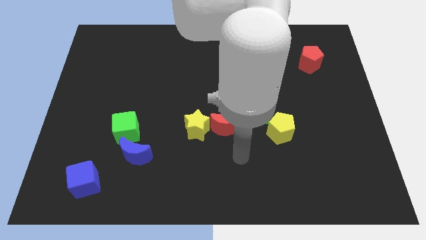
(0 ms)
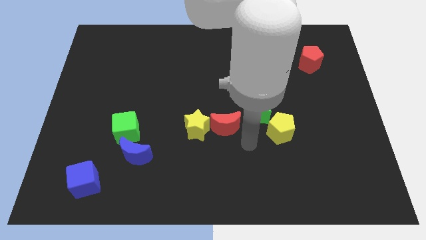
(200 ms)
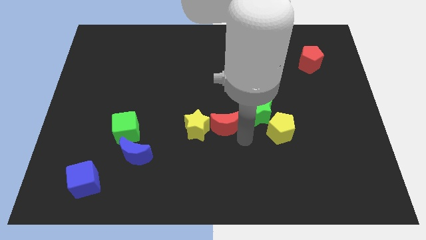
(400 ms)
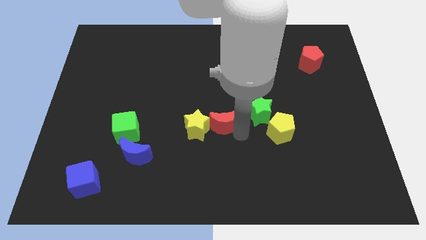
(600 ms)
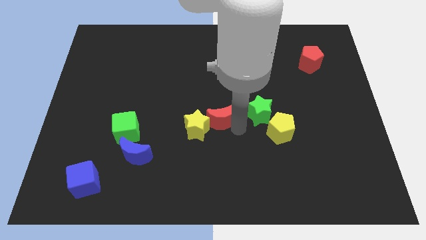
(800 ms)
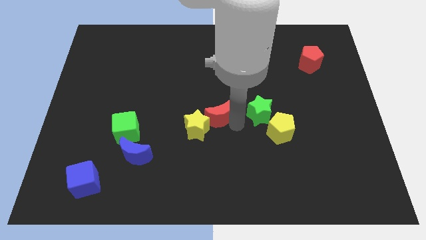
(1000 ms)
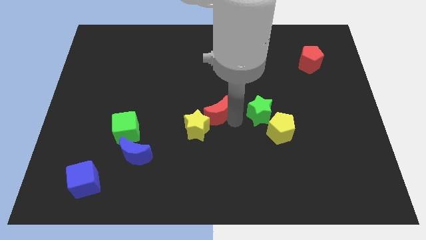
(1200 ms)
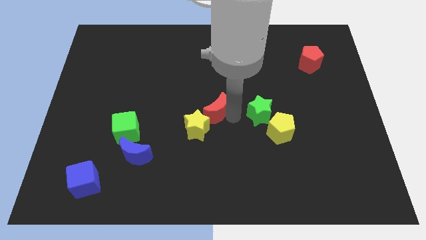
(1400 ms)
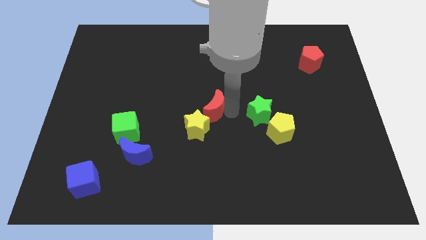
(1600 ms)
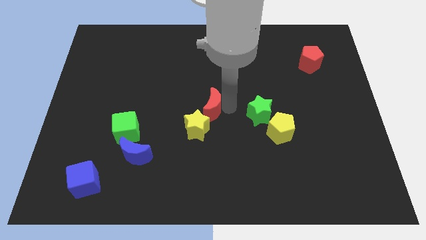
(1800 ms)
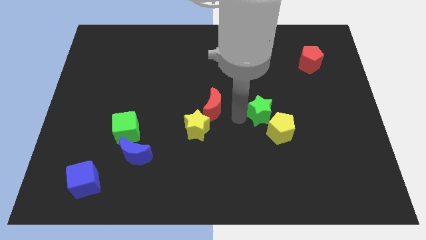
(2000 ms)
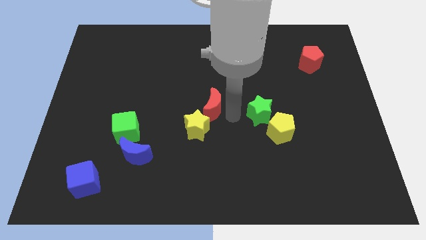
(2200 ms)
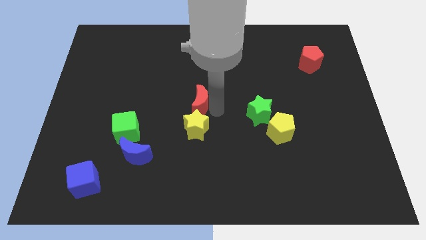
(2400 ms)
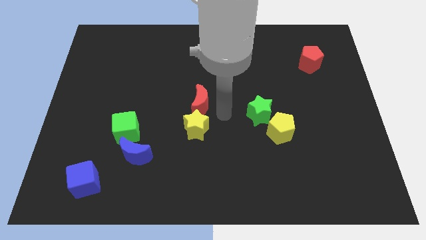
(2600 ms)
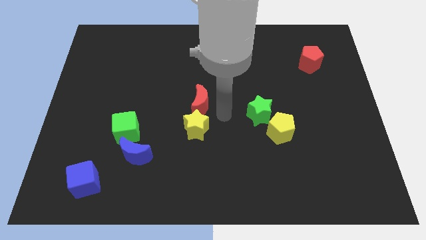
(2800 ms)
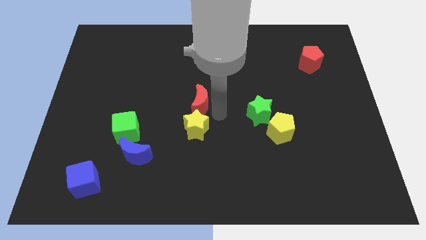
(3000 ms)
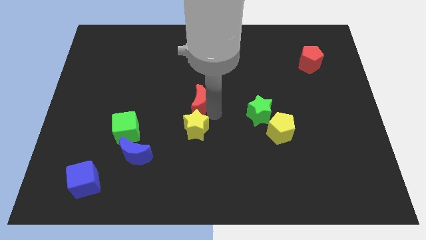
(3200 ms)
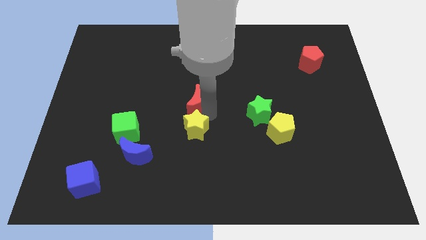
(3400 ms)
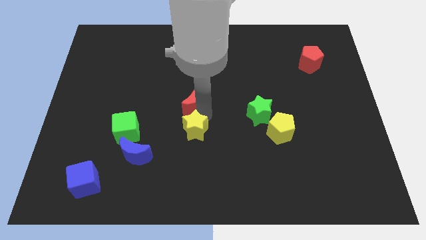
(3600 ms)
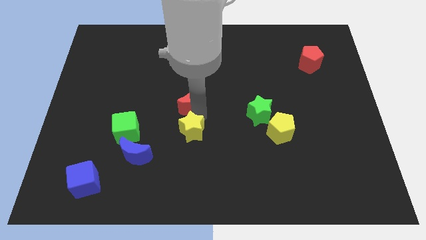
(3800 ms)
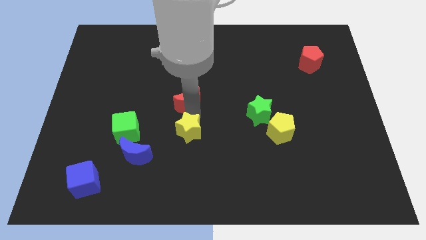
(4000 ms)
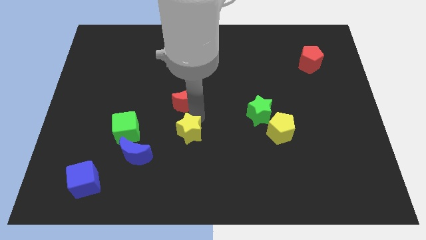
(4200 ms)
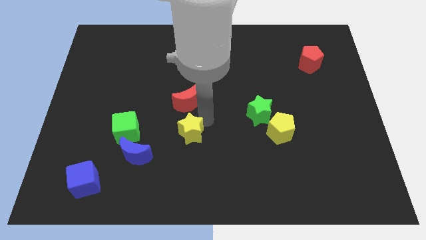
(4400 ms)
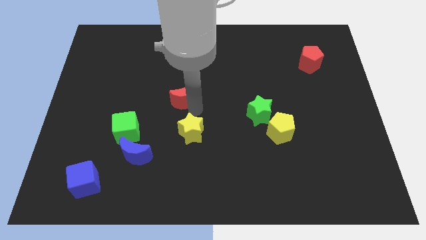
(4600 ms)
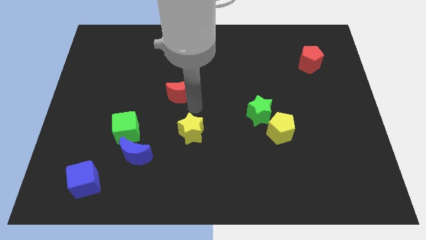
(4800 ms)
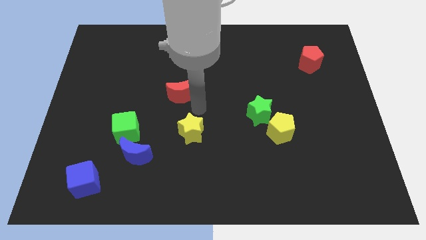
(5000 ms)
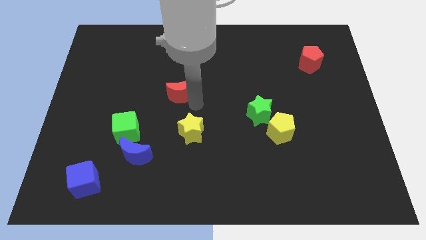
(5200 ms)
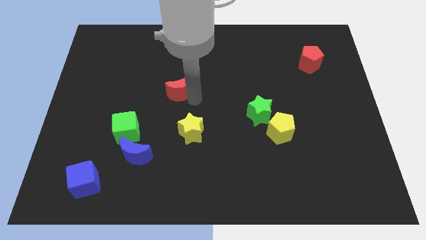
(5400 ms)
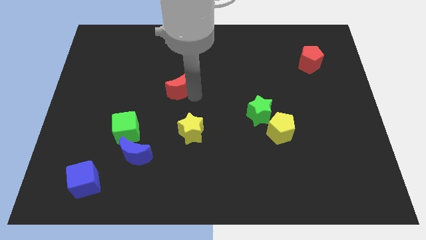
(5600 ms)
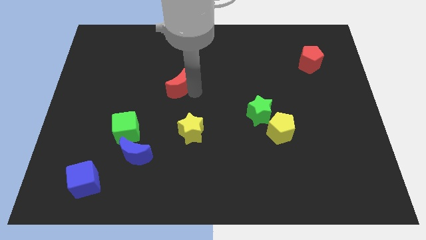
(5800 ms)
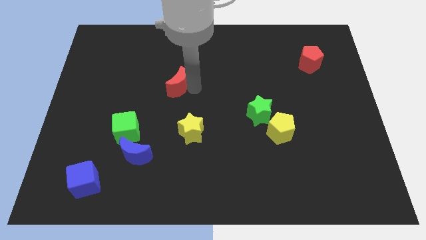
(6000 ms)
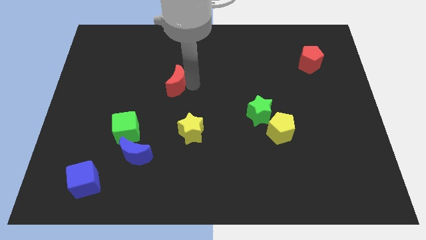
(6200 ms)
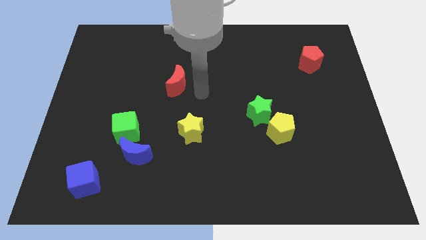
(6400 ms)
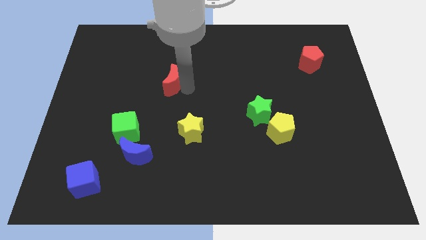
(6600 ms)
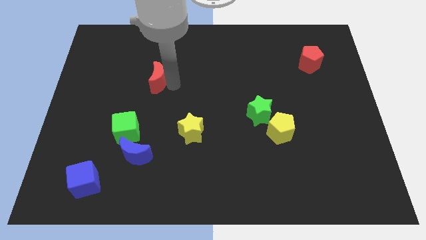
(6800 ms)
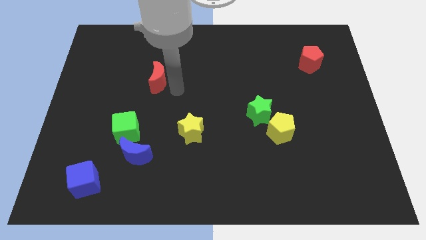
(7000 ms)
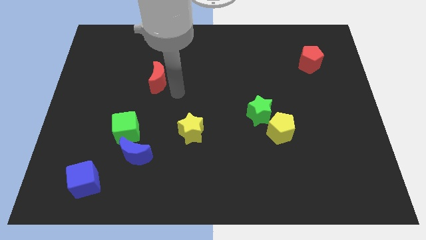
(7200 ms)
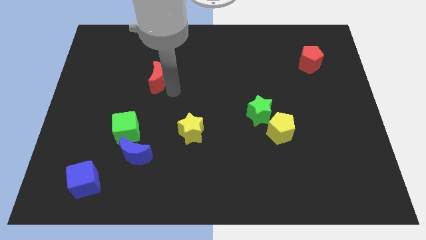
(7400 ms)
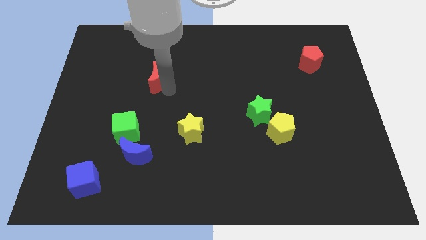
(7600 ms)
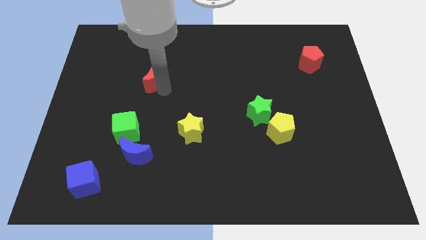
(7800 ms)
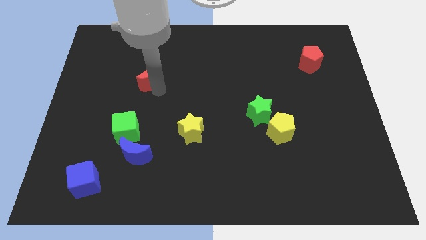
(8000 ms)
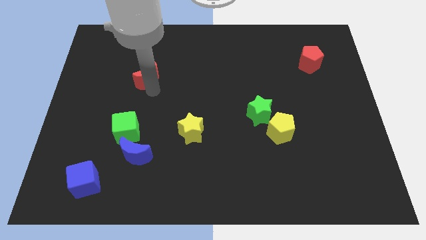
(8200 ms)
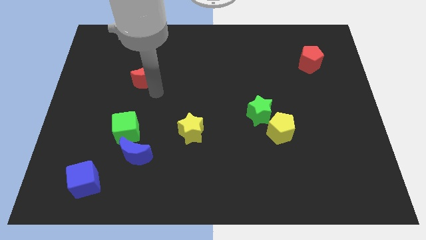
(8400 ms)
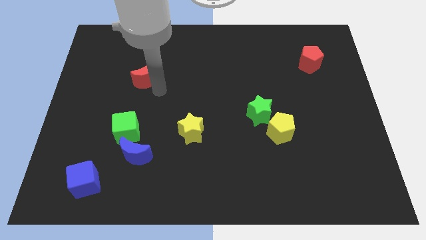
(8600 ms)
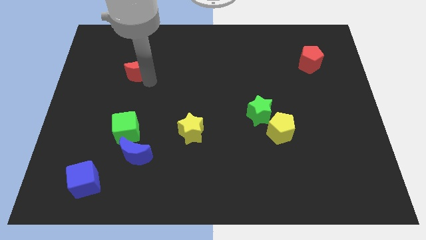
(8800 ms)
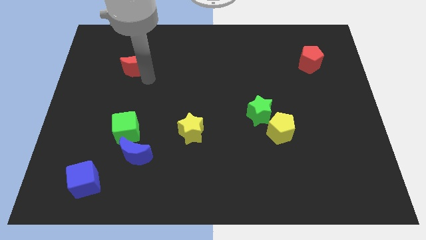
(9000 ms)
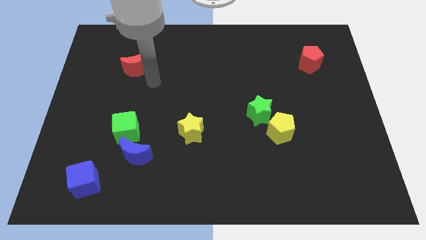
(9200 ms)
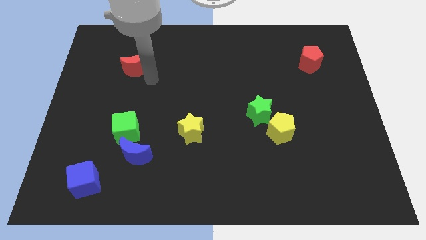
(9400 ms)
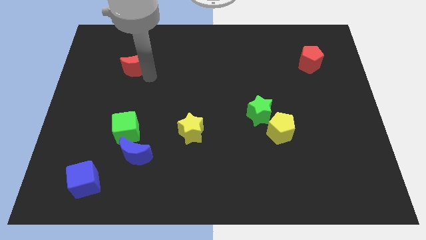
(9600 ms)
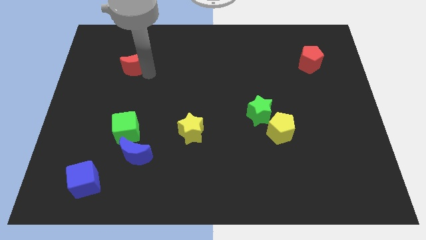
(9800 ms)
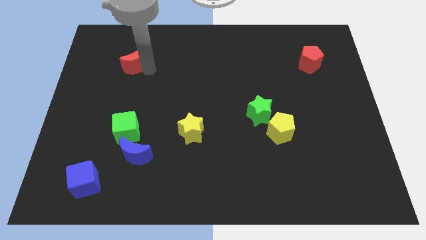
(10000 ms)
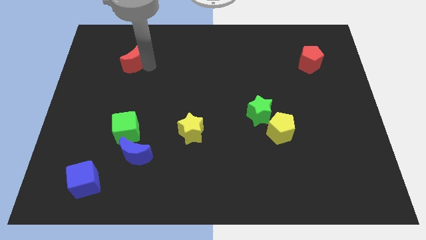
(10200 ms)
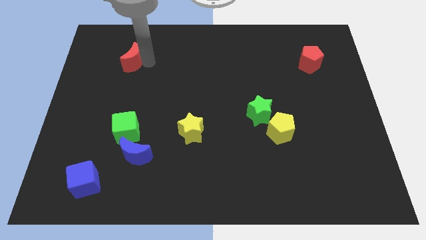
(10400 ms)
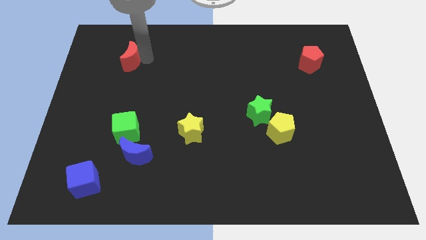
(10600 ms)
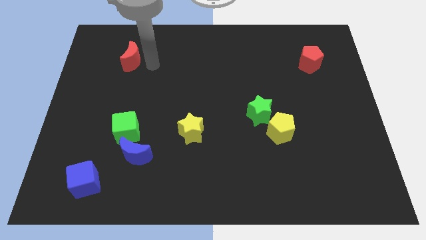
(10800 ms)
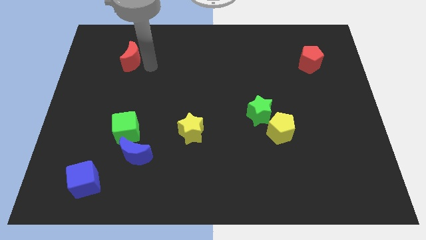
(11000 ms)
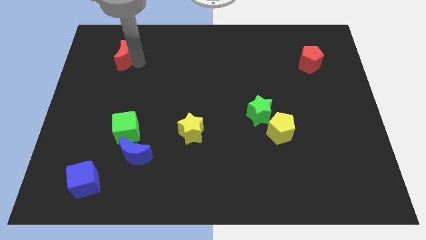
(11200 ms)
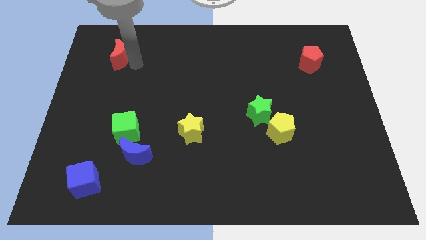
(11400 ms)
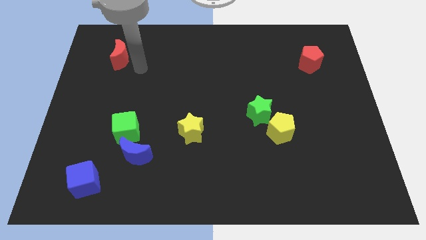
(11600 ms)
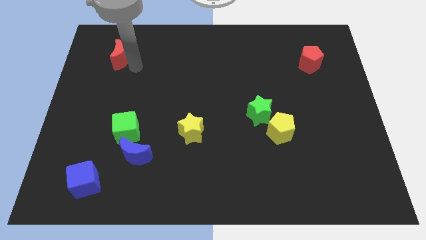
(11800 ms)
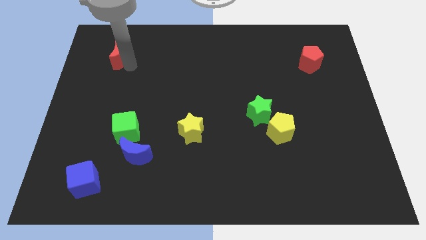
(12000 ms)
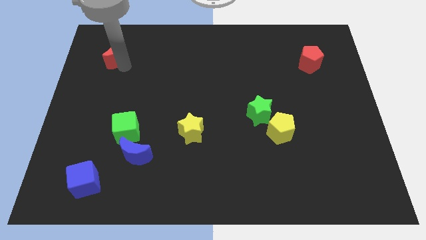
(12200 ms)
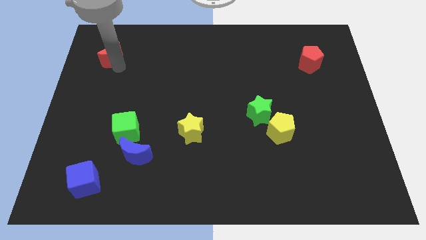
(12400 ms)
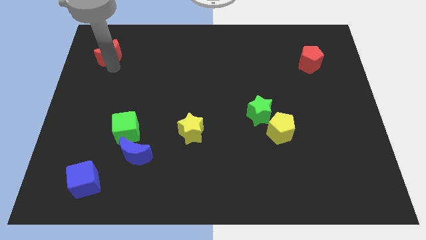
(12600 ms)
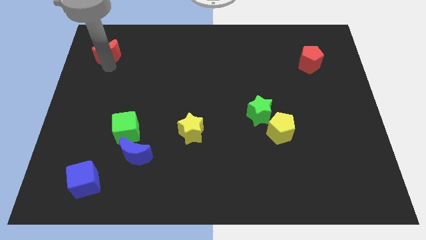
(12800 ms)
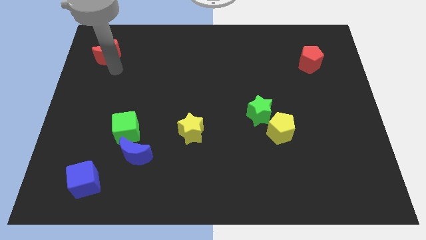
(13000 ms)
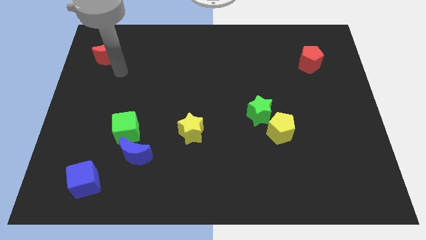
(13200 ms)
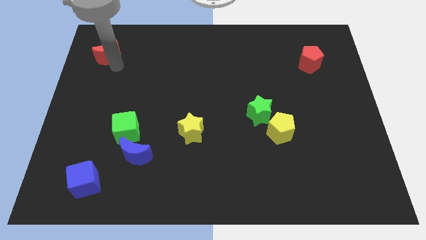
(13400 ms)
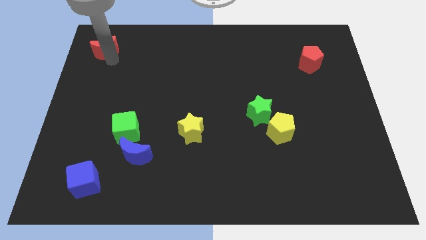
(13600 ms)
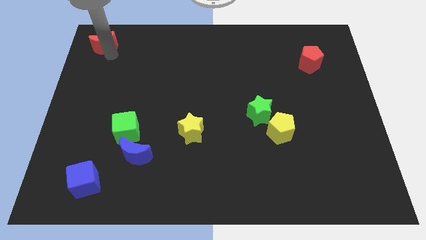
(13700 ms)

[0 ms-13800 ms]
push the red moon to the top left of the board
